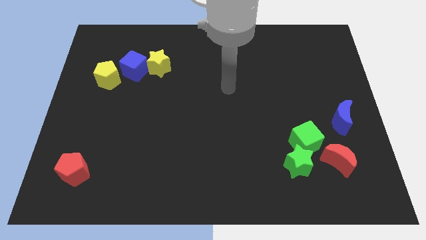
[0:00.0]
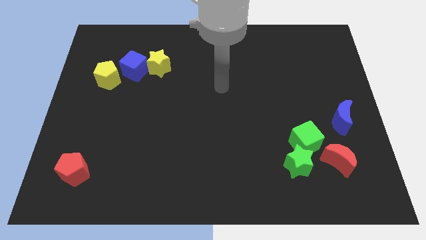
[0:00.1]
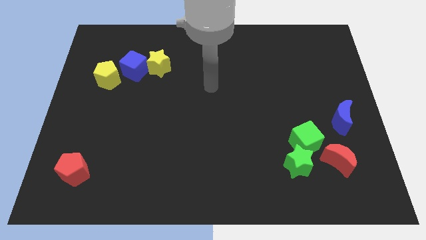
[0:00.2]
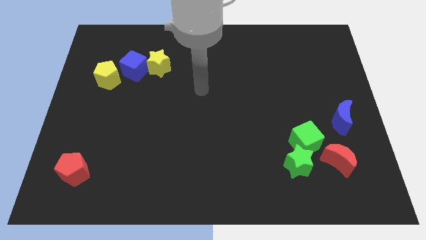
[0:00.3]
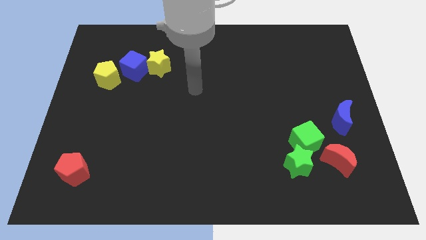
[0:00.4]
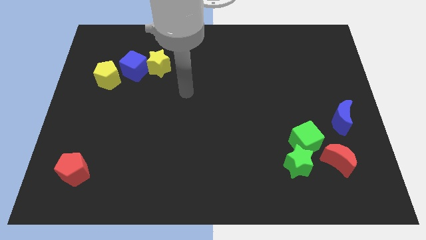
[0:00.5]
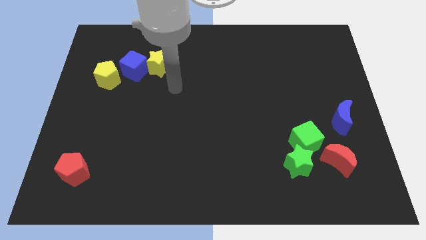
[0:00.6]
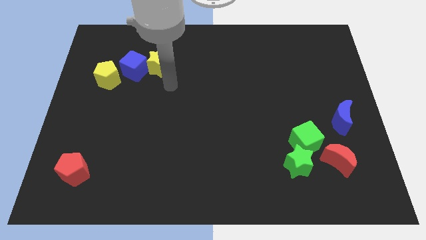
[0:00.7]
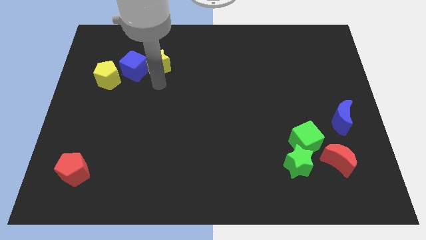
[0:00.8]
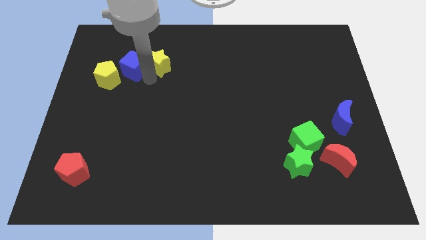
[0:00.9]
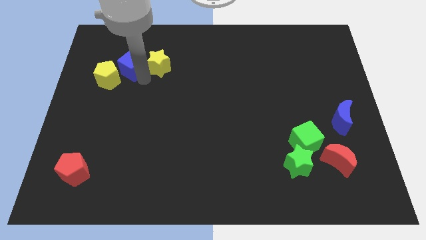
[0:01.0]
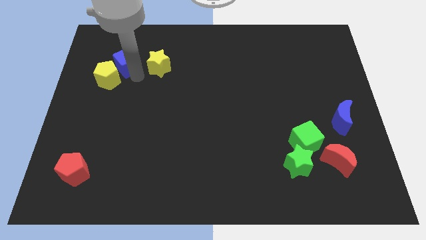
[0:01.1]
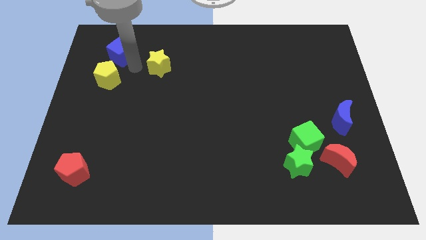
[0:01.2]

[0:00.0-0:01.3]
move the yellow star away from the blue cube

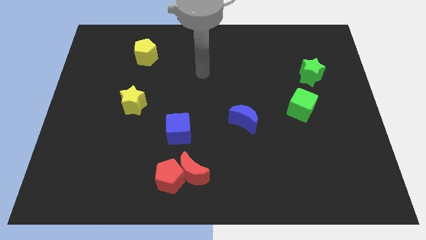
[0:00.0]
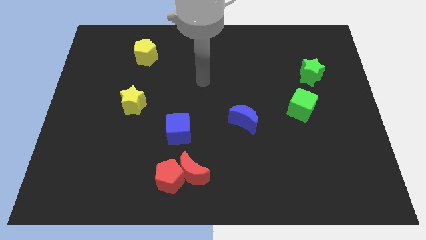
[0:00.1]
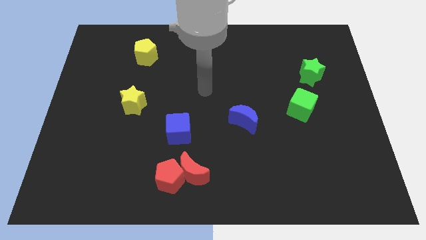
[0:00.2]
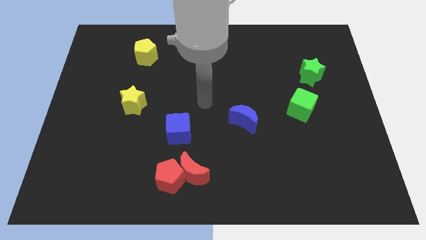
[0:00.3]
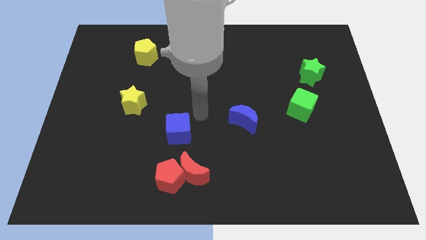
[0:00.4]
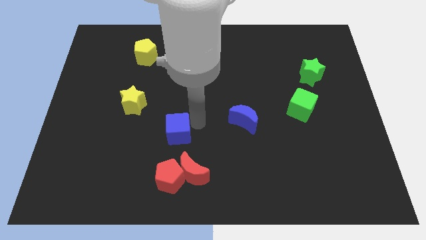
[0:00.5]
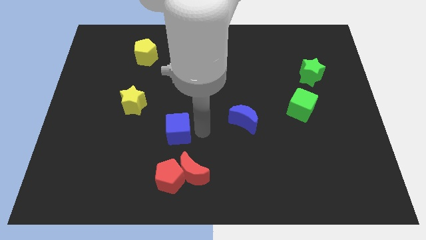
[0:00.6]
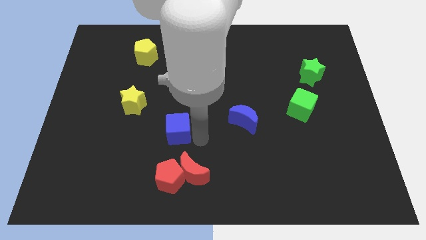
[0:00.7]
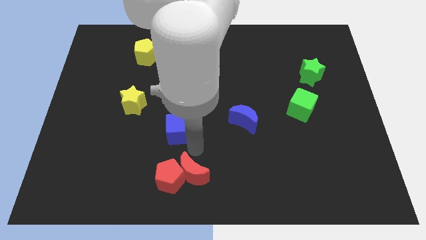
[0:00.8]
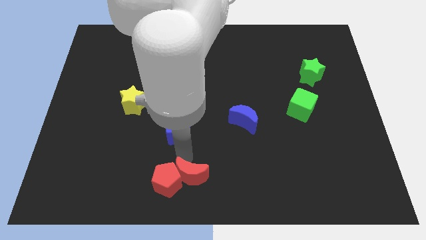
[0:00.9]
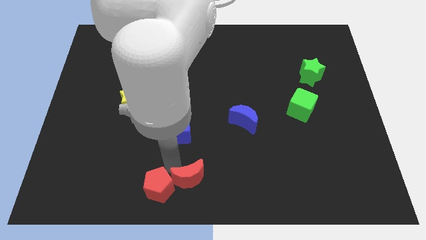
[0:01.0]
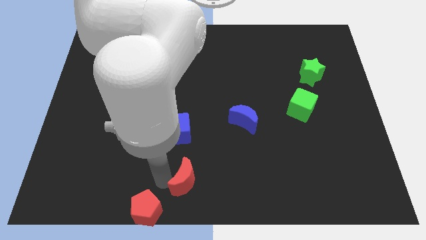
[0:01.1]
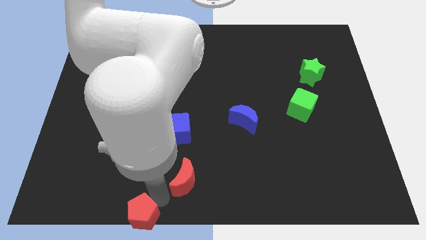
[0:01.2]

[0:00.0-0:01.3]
separate the red moon from the red pentagon

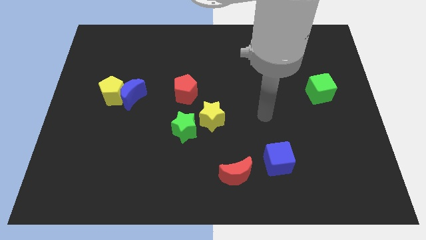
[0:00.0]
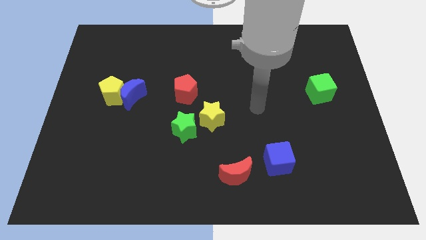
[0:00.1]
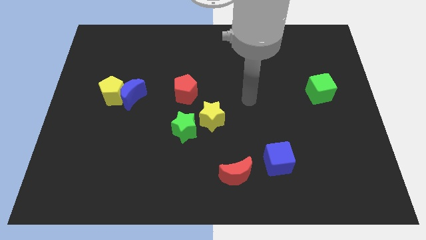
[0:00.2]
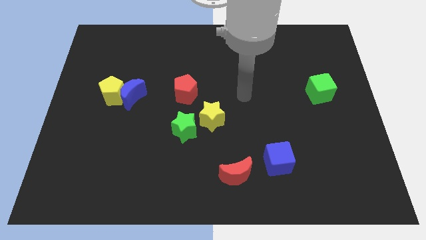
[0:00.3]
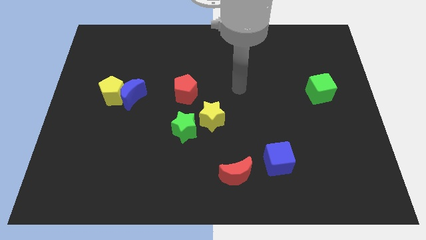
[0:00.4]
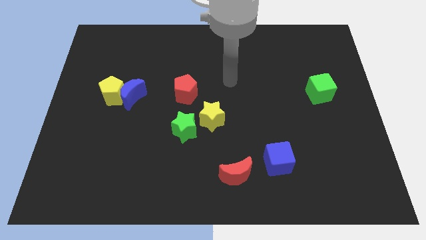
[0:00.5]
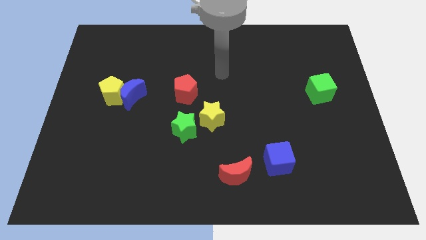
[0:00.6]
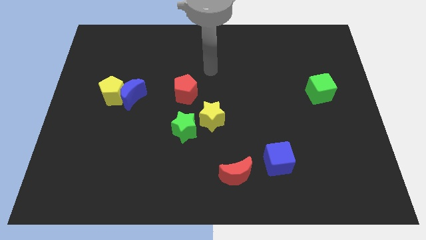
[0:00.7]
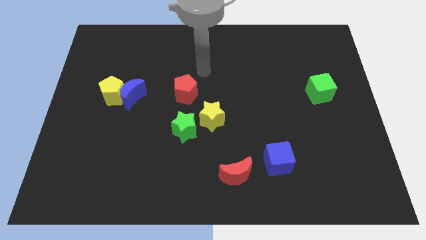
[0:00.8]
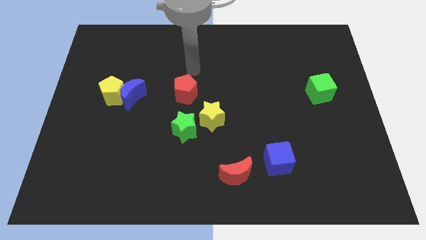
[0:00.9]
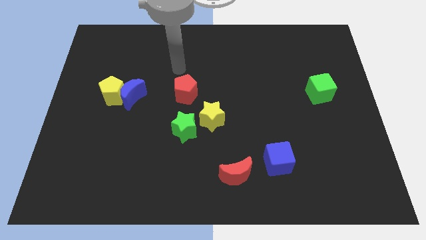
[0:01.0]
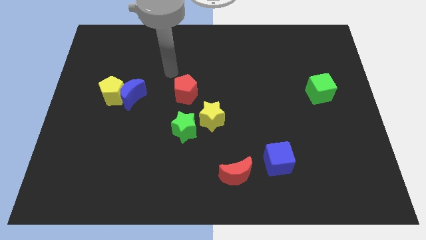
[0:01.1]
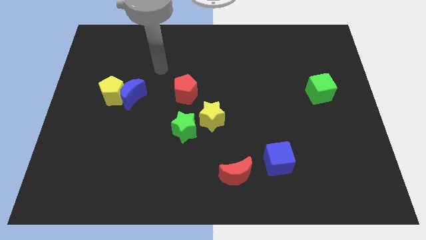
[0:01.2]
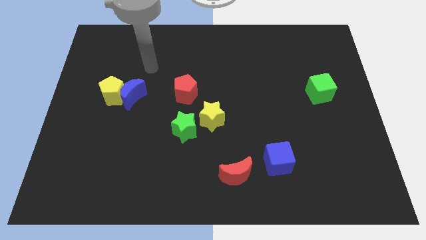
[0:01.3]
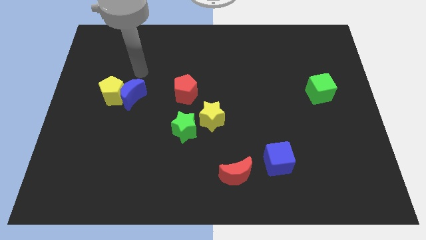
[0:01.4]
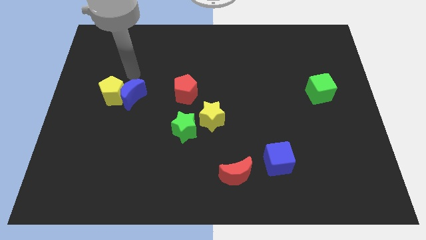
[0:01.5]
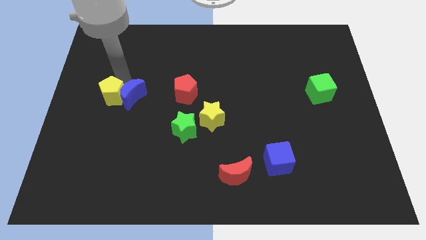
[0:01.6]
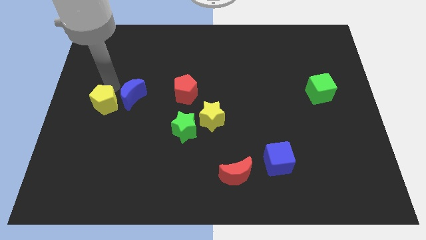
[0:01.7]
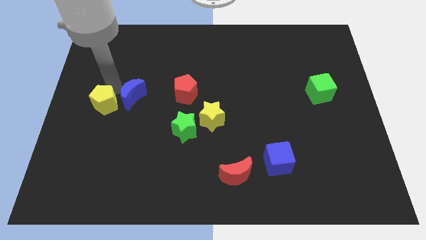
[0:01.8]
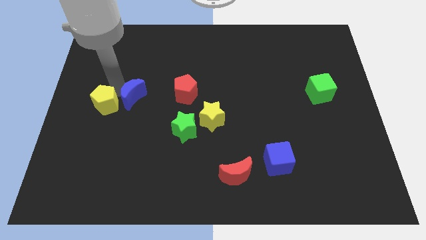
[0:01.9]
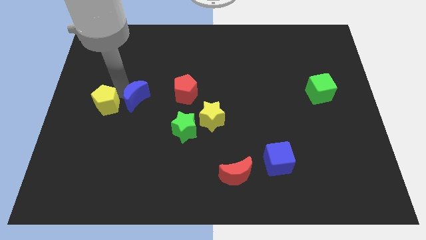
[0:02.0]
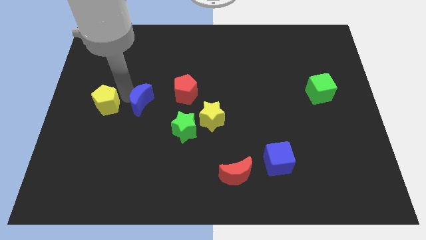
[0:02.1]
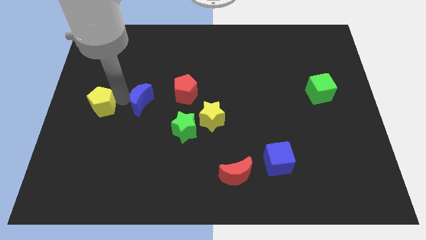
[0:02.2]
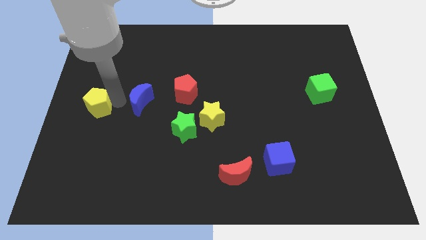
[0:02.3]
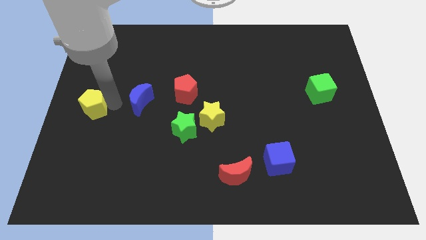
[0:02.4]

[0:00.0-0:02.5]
separate the blue moon from the yellow pentagon

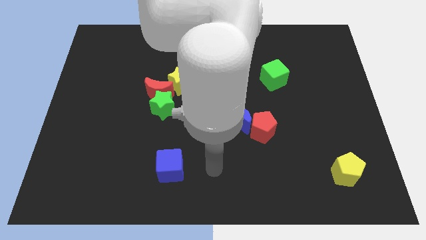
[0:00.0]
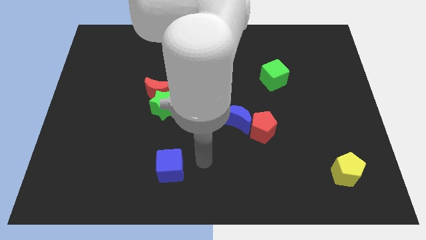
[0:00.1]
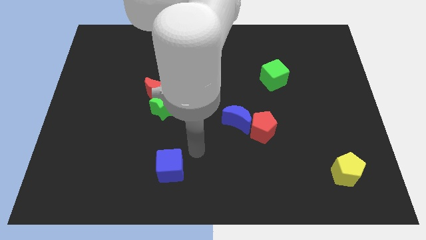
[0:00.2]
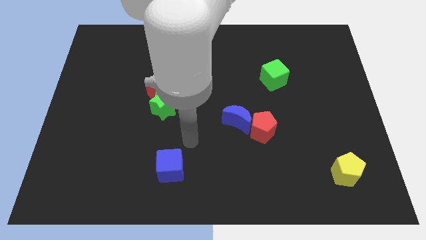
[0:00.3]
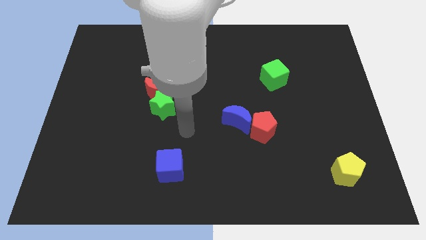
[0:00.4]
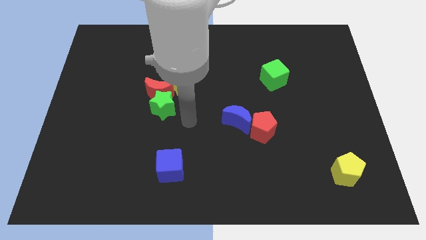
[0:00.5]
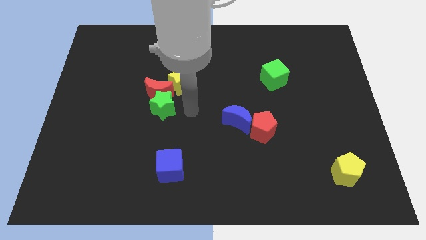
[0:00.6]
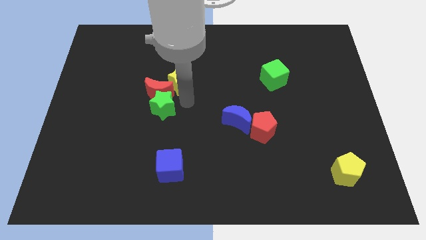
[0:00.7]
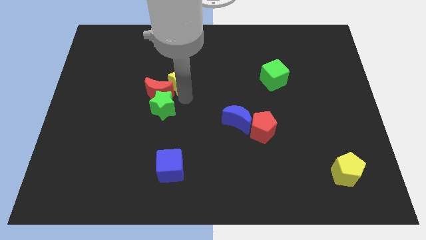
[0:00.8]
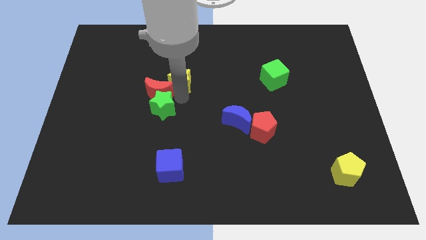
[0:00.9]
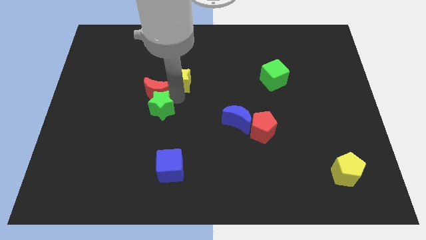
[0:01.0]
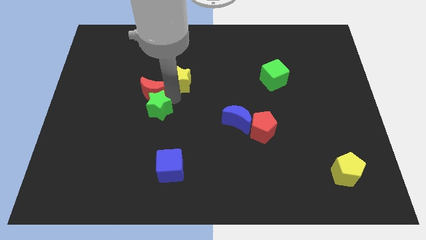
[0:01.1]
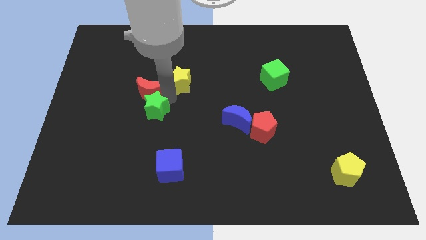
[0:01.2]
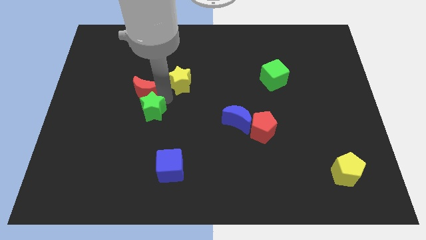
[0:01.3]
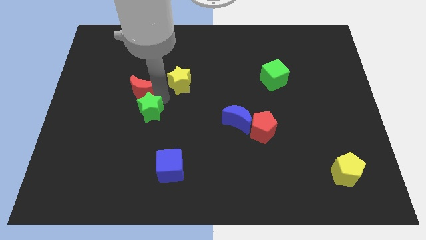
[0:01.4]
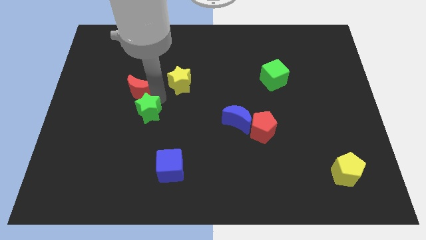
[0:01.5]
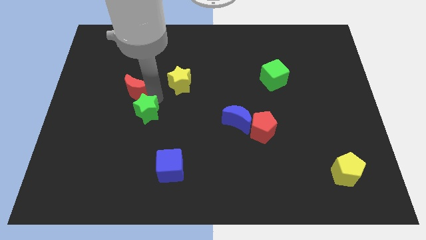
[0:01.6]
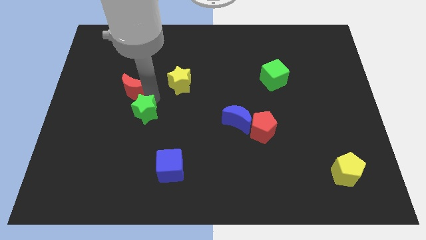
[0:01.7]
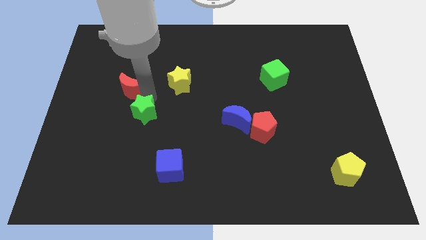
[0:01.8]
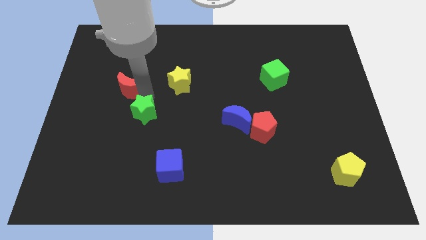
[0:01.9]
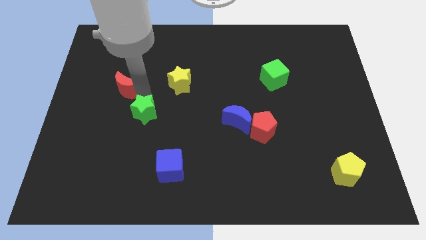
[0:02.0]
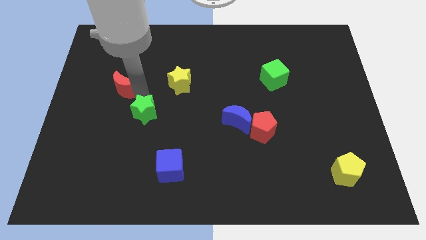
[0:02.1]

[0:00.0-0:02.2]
move the red moon away from the green star and yellow star

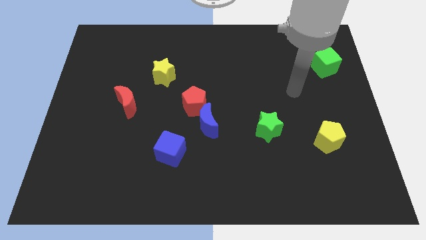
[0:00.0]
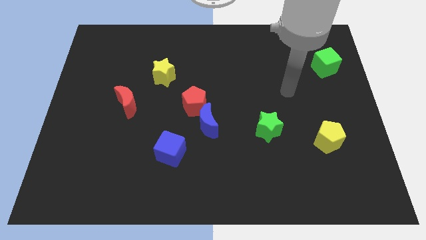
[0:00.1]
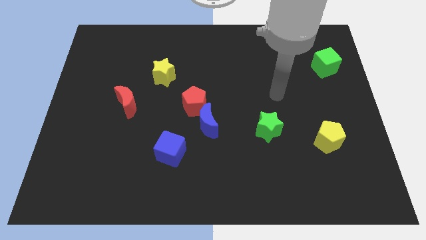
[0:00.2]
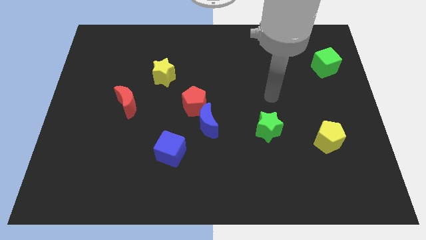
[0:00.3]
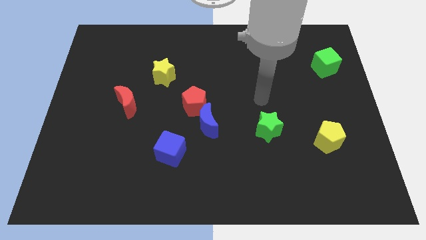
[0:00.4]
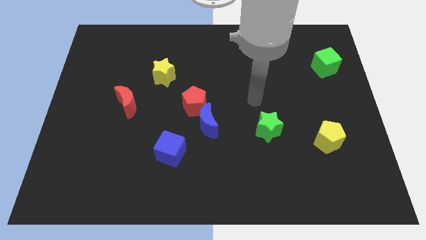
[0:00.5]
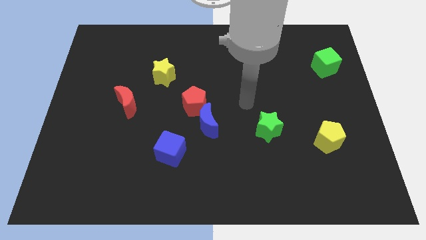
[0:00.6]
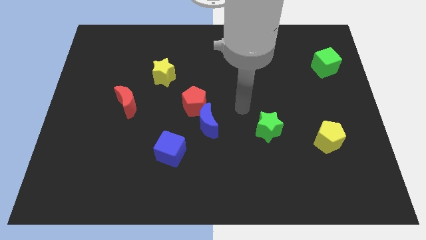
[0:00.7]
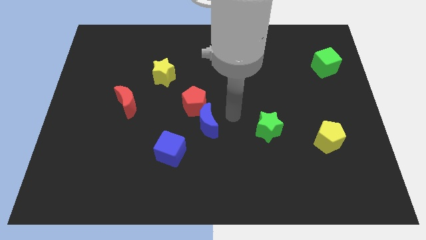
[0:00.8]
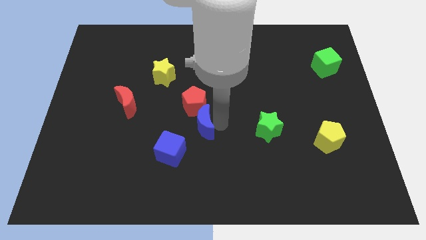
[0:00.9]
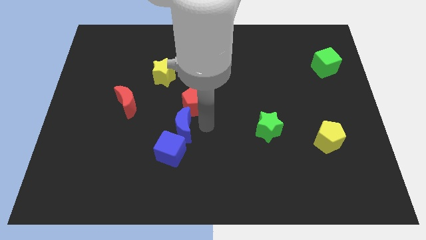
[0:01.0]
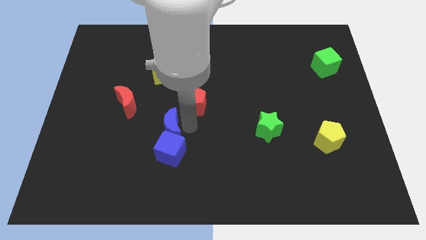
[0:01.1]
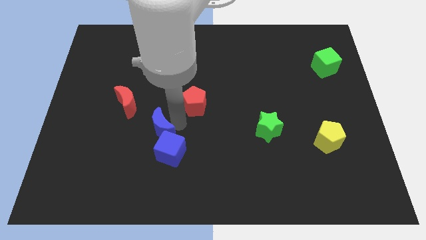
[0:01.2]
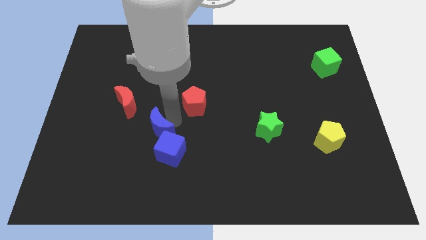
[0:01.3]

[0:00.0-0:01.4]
pull the red pentagon apart from the blue moon

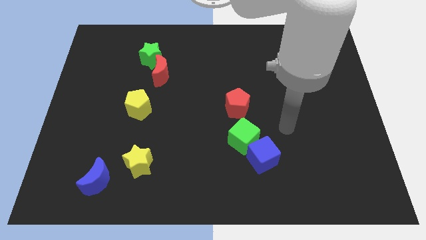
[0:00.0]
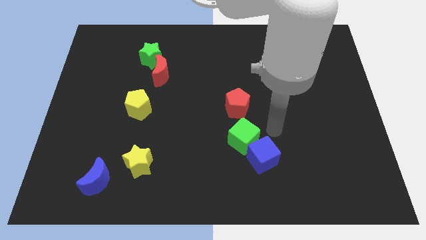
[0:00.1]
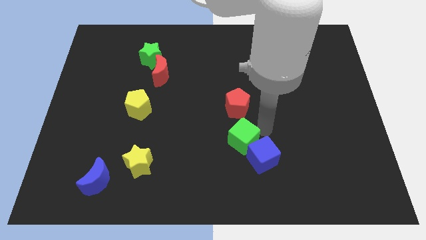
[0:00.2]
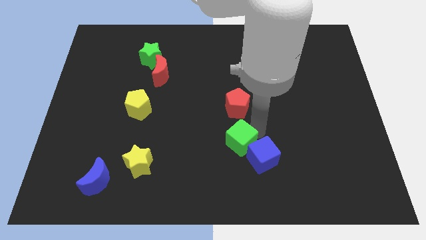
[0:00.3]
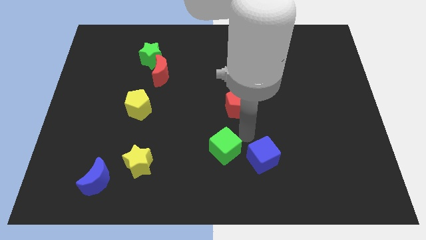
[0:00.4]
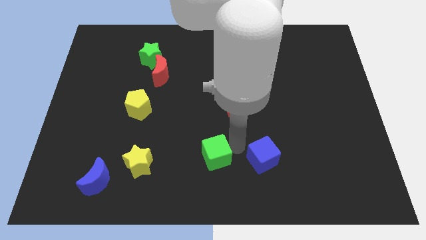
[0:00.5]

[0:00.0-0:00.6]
move the blue cube away from the green cube
